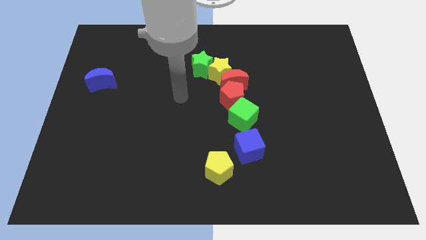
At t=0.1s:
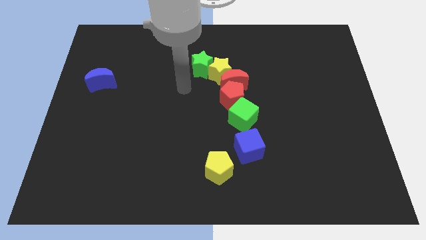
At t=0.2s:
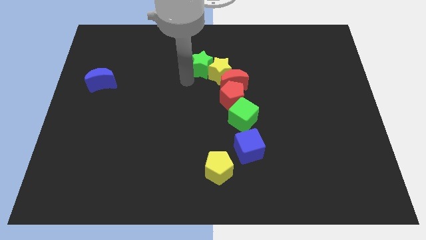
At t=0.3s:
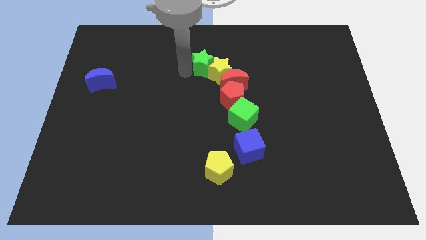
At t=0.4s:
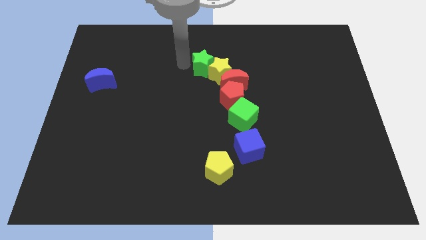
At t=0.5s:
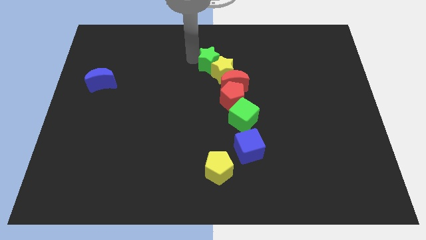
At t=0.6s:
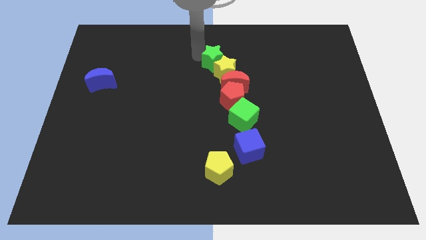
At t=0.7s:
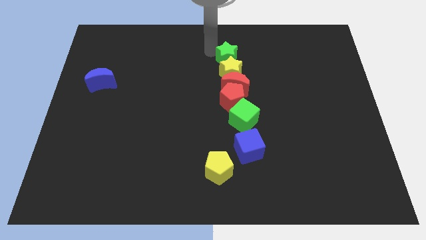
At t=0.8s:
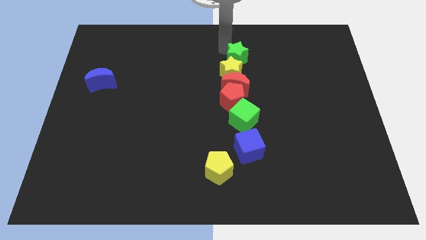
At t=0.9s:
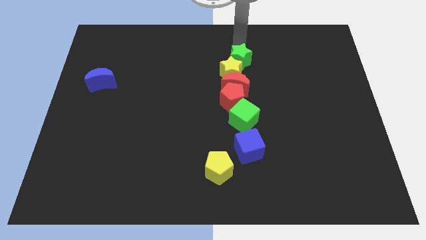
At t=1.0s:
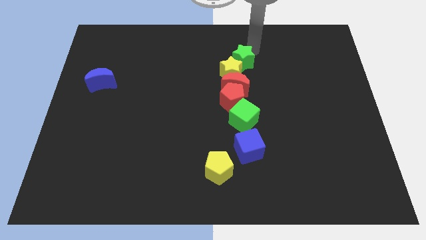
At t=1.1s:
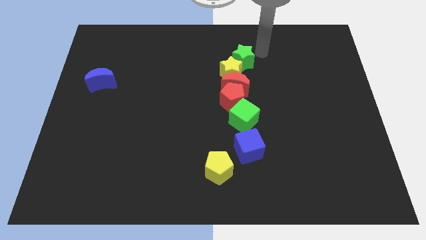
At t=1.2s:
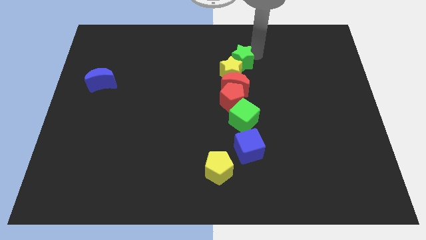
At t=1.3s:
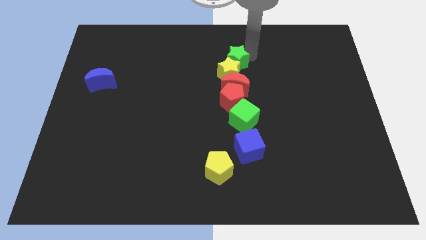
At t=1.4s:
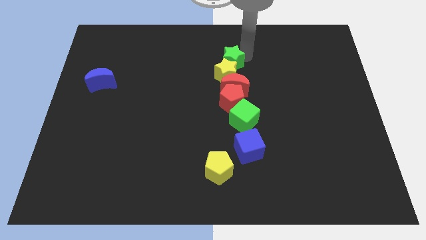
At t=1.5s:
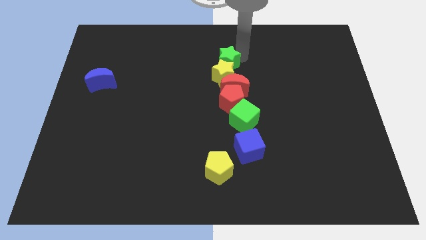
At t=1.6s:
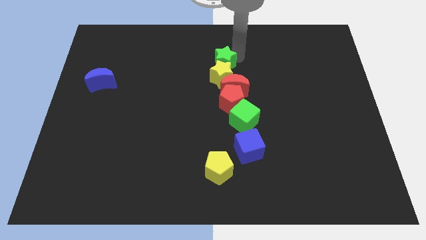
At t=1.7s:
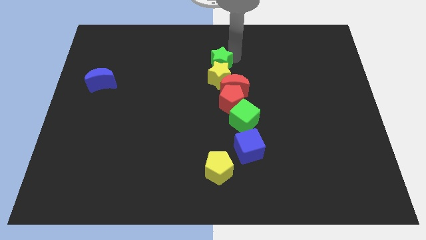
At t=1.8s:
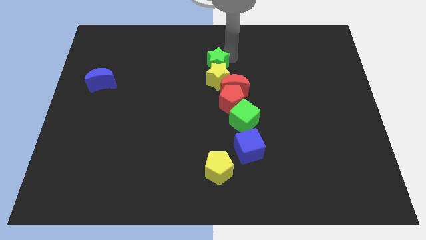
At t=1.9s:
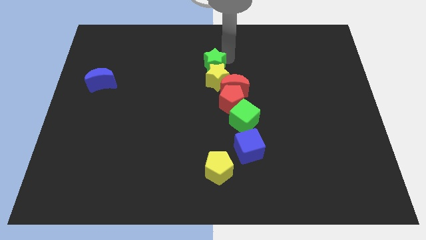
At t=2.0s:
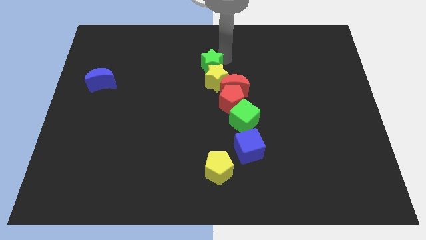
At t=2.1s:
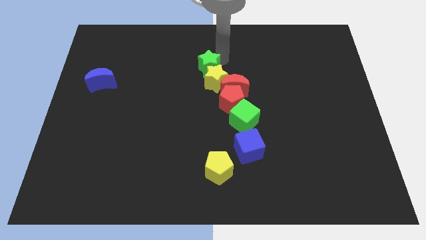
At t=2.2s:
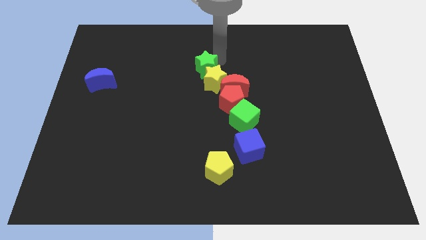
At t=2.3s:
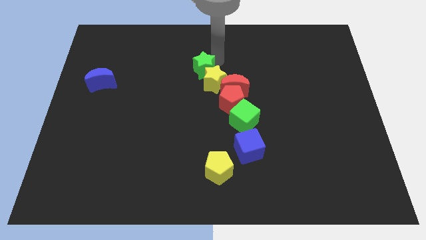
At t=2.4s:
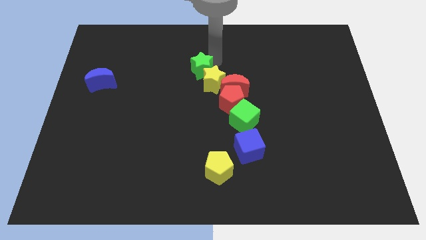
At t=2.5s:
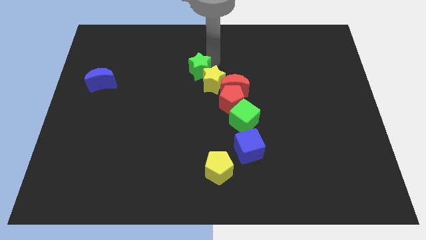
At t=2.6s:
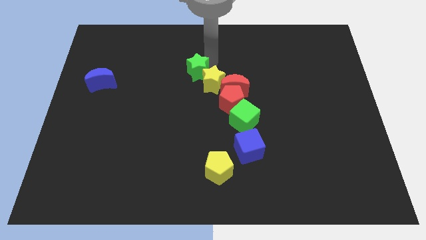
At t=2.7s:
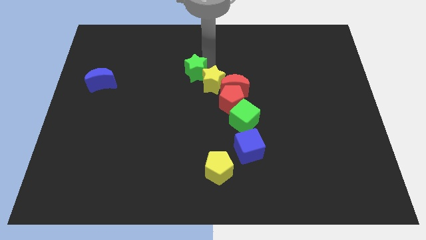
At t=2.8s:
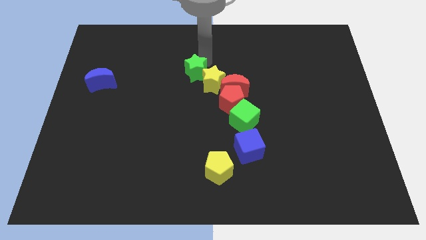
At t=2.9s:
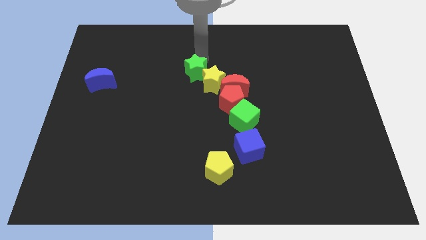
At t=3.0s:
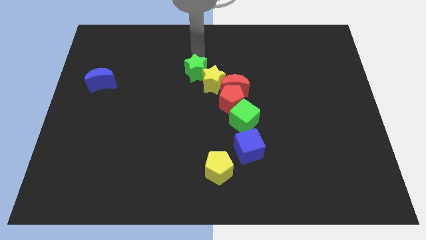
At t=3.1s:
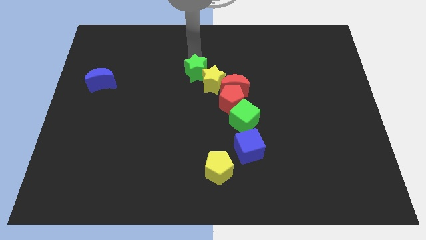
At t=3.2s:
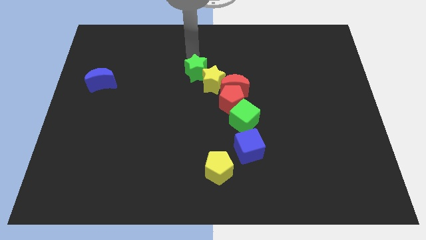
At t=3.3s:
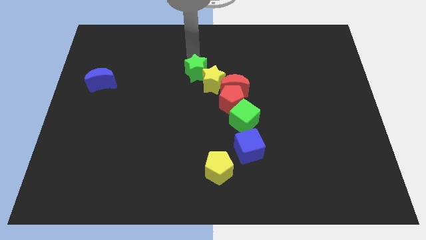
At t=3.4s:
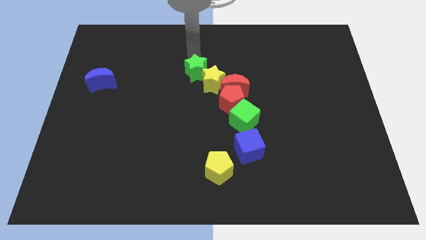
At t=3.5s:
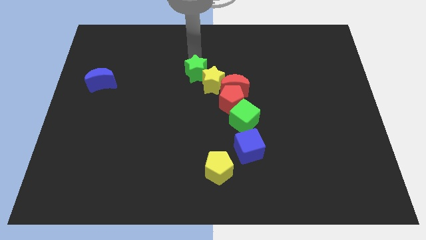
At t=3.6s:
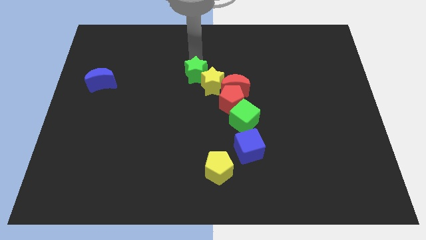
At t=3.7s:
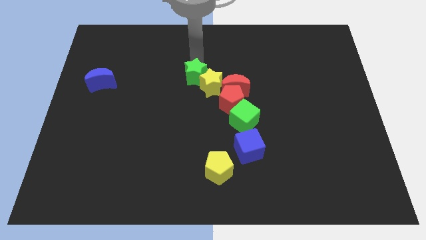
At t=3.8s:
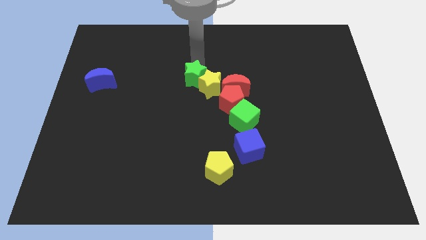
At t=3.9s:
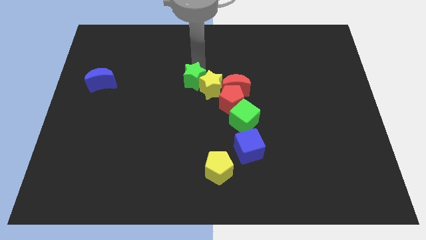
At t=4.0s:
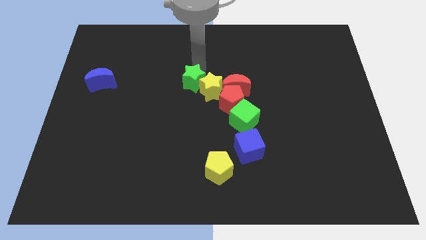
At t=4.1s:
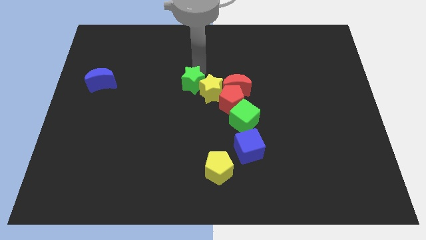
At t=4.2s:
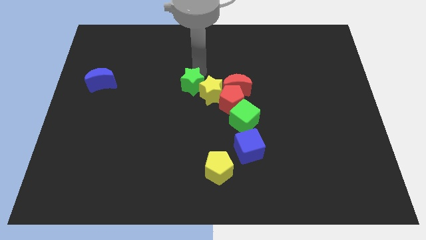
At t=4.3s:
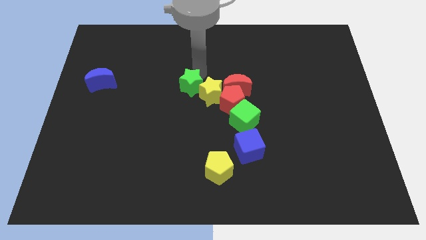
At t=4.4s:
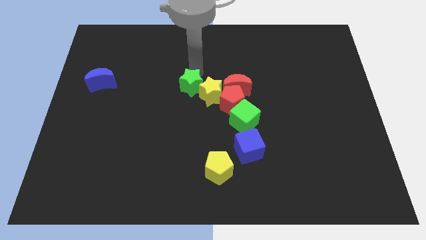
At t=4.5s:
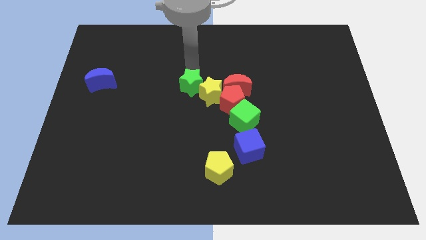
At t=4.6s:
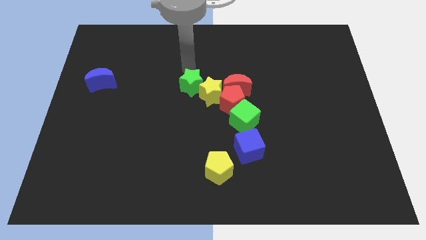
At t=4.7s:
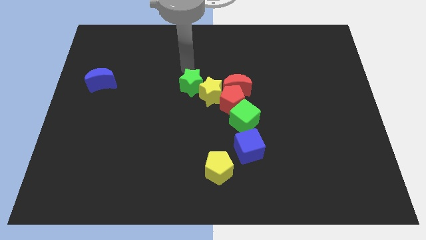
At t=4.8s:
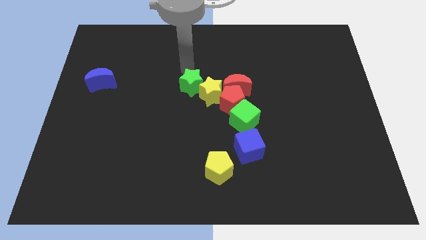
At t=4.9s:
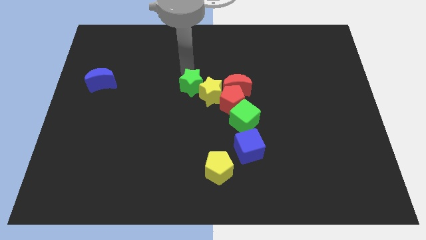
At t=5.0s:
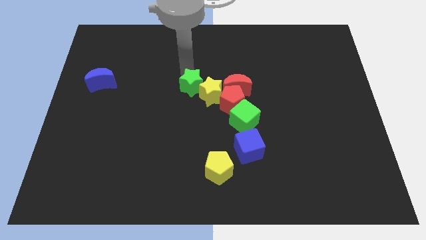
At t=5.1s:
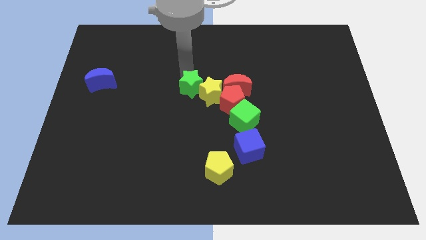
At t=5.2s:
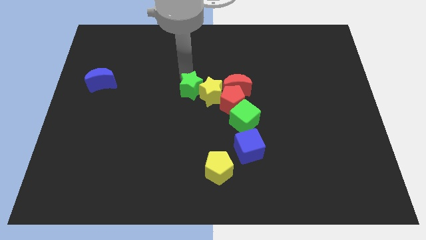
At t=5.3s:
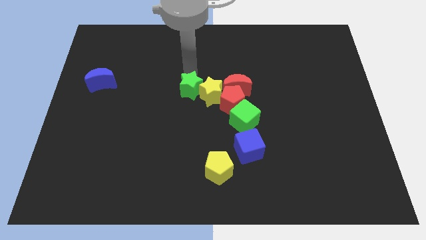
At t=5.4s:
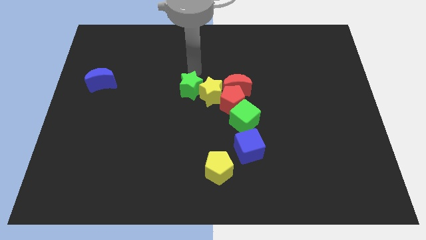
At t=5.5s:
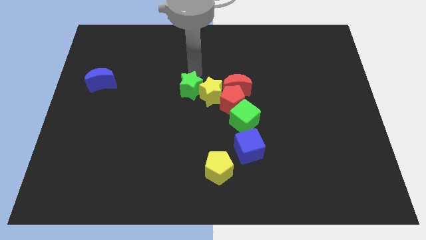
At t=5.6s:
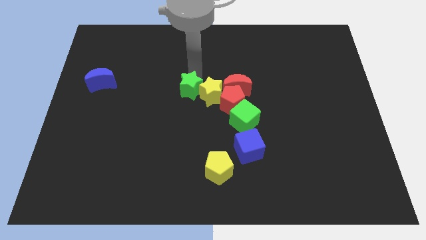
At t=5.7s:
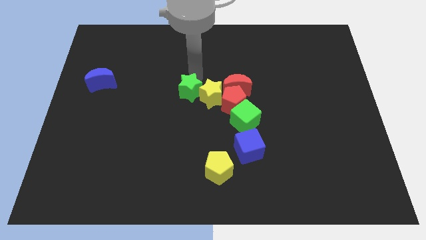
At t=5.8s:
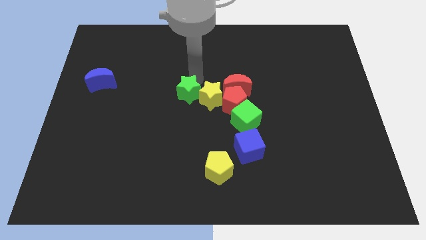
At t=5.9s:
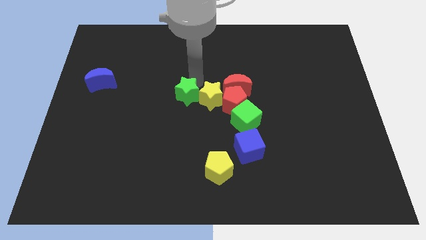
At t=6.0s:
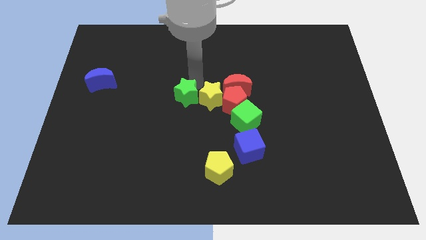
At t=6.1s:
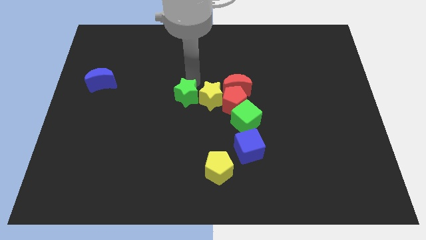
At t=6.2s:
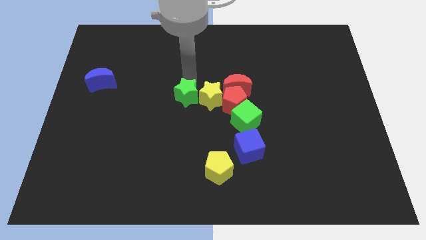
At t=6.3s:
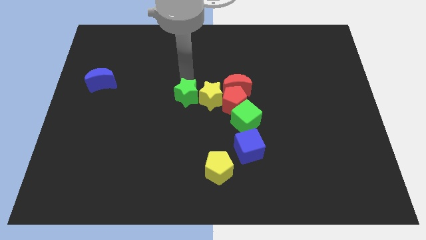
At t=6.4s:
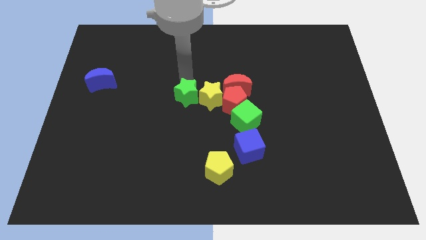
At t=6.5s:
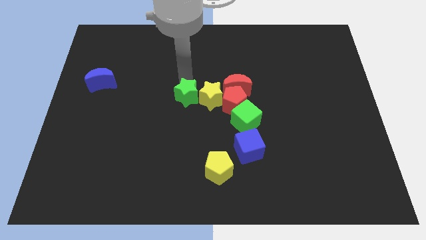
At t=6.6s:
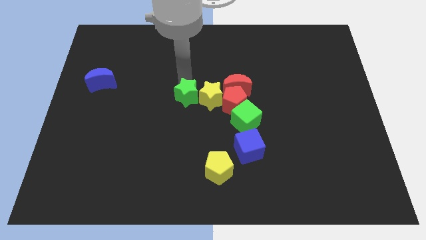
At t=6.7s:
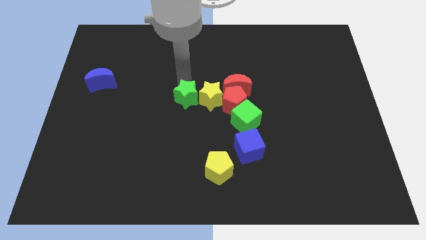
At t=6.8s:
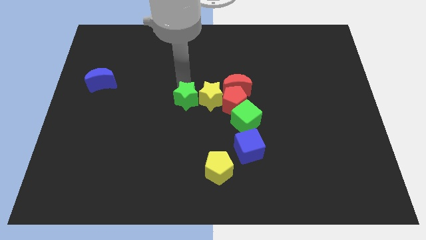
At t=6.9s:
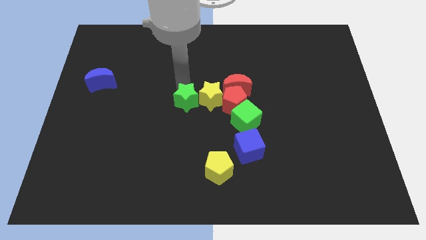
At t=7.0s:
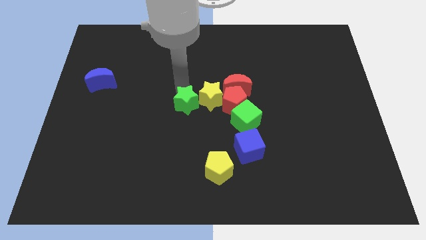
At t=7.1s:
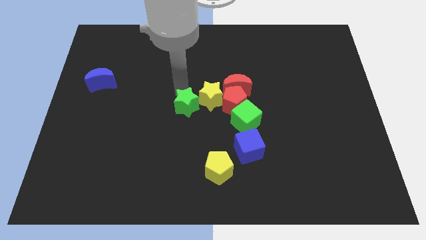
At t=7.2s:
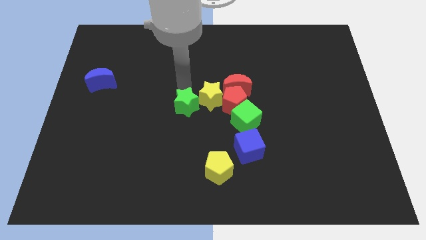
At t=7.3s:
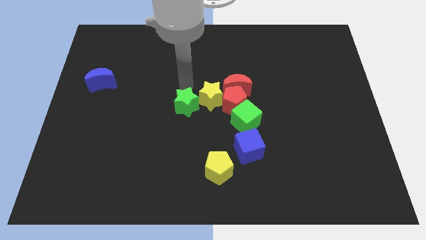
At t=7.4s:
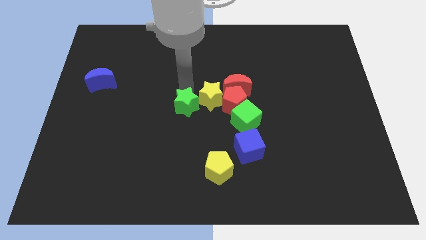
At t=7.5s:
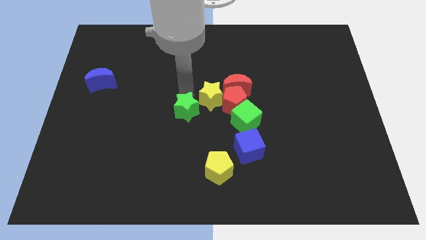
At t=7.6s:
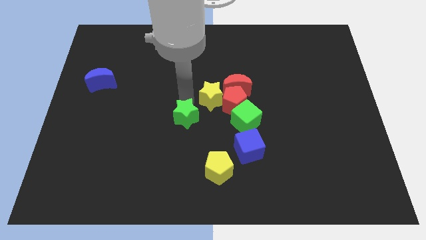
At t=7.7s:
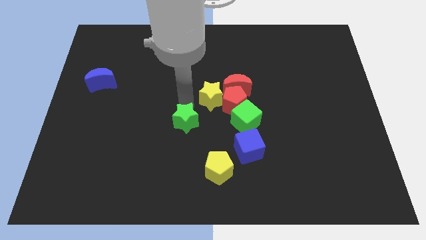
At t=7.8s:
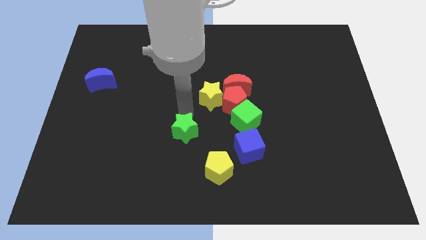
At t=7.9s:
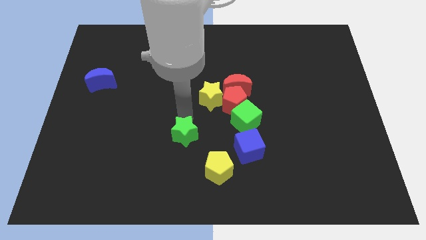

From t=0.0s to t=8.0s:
move the green star down
